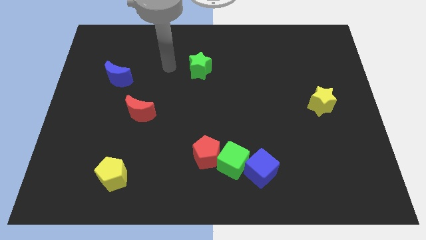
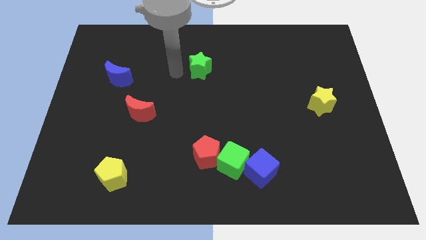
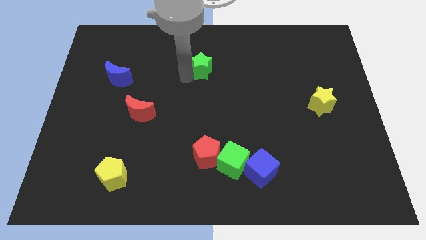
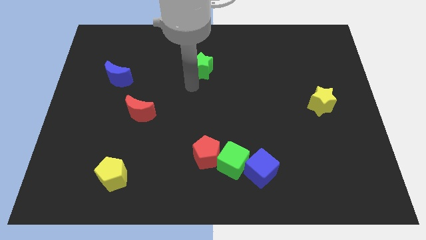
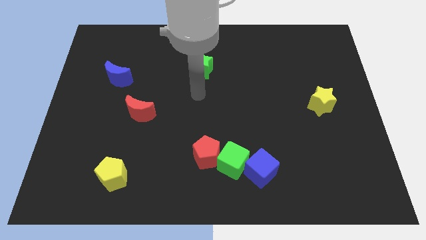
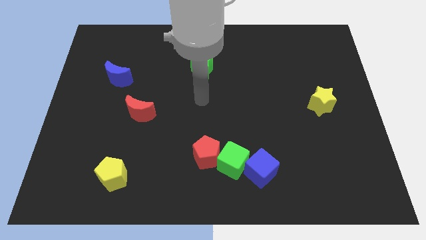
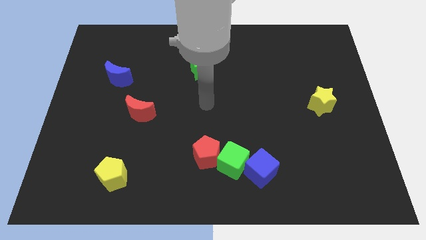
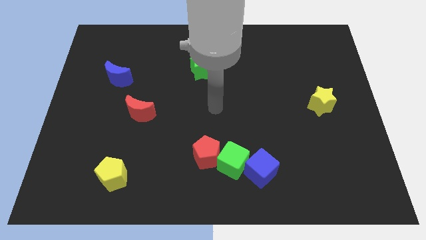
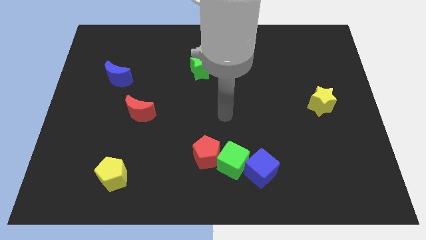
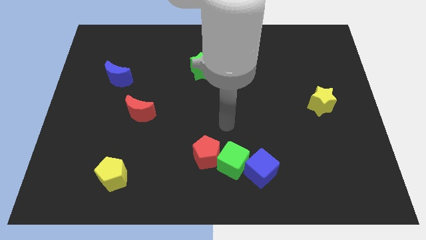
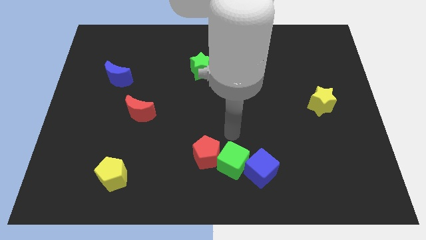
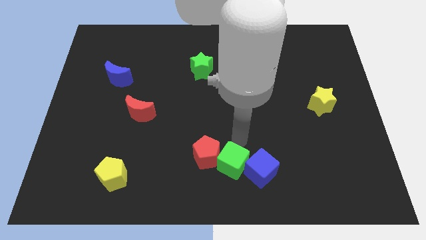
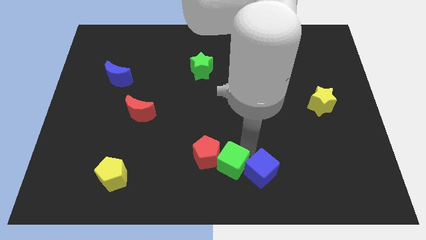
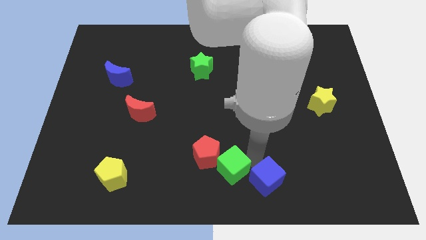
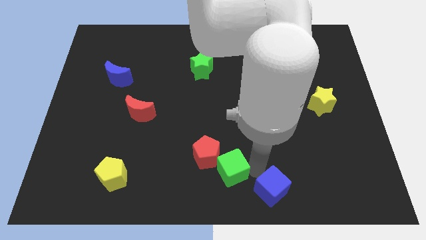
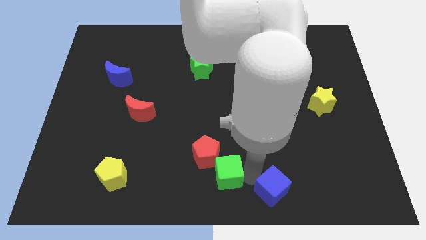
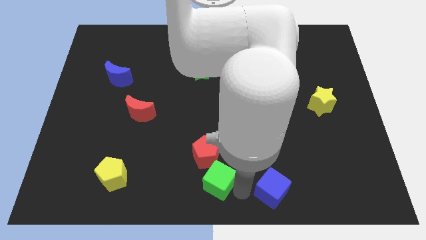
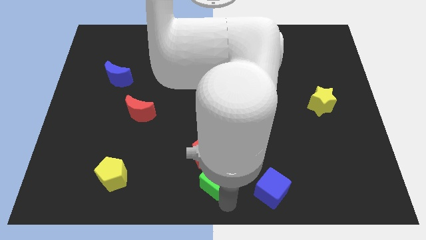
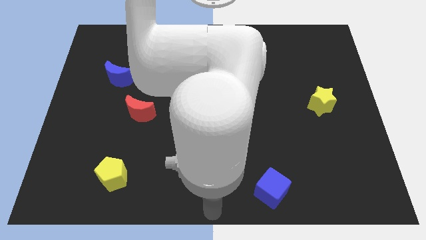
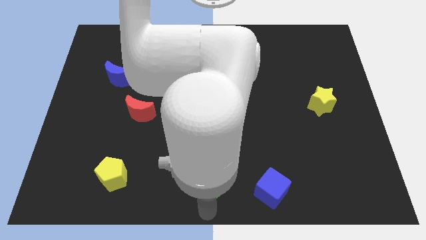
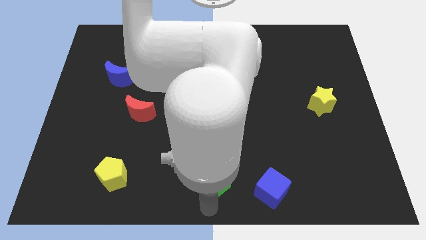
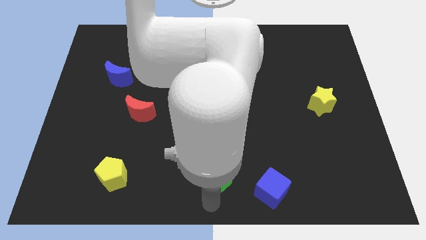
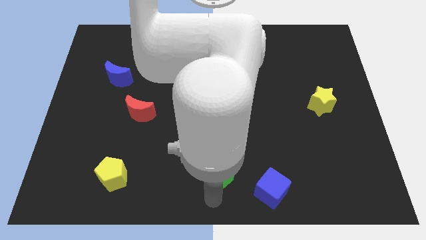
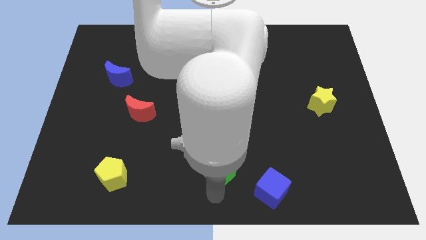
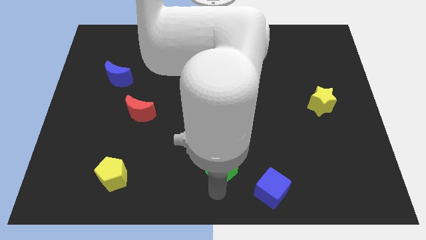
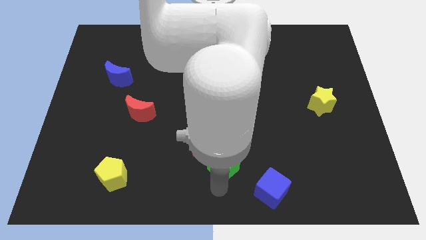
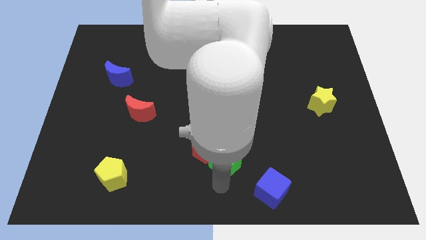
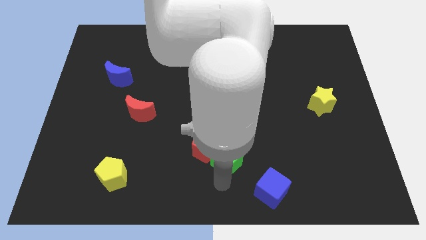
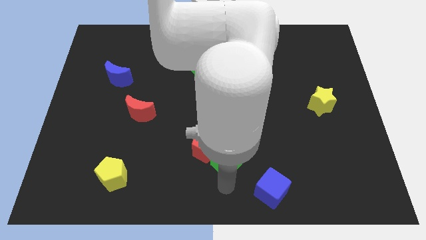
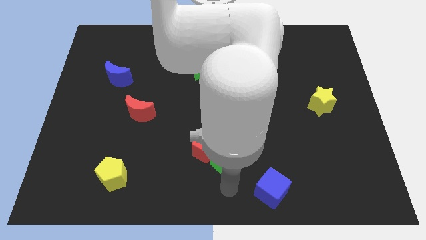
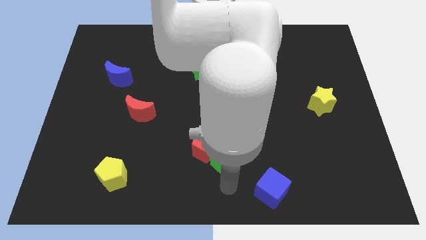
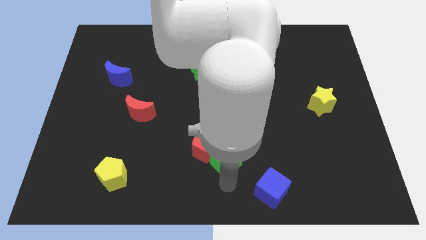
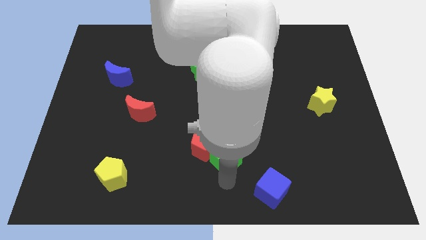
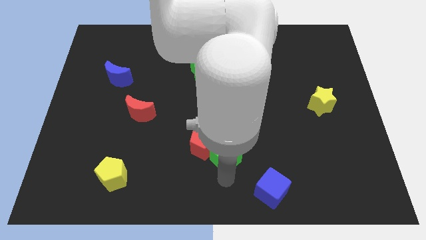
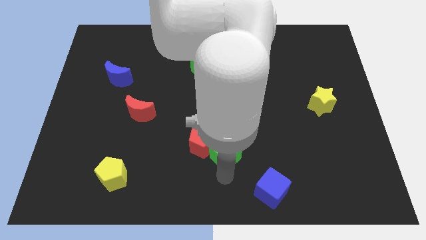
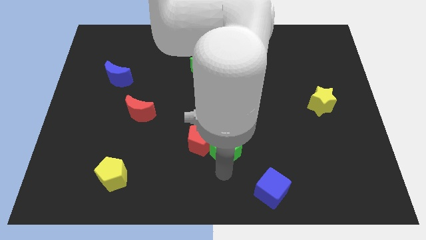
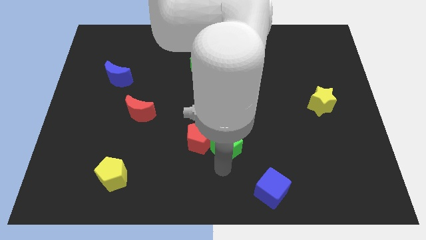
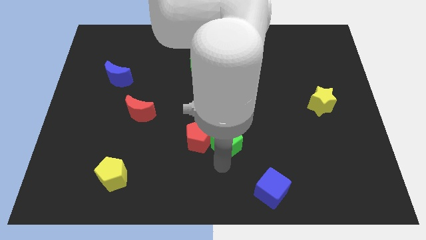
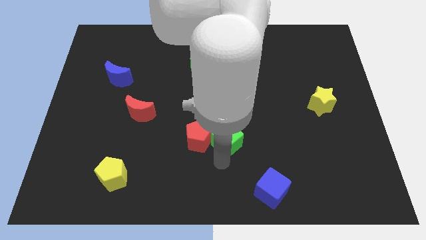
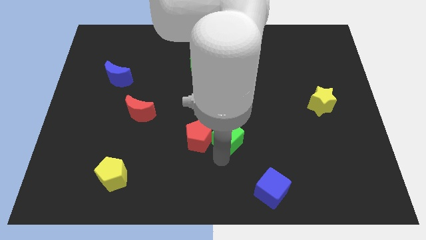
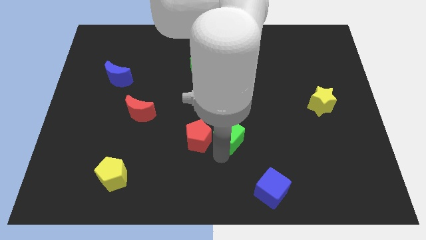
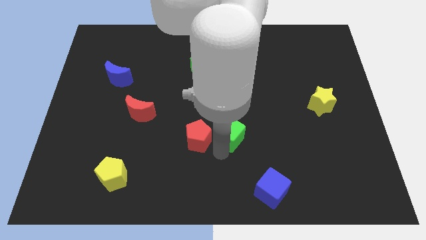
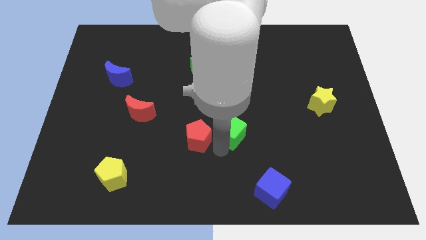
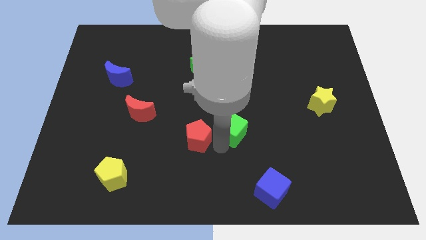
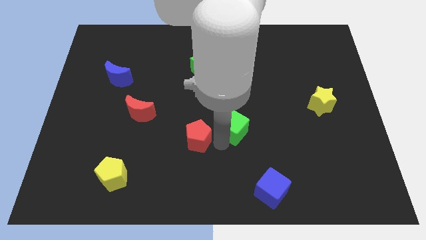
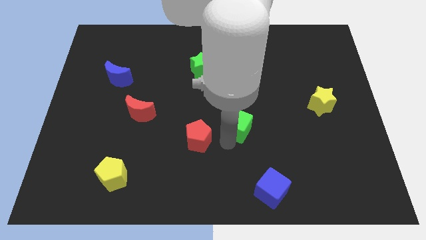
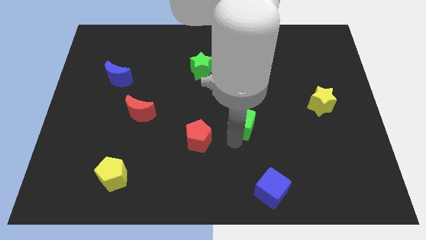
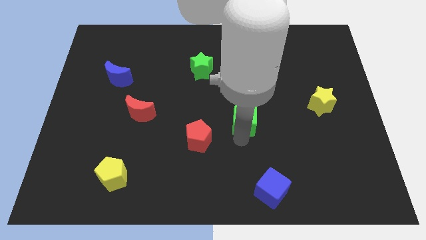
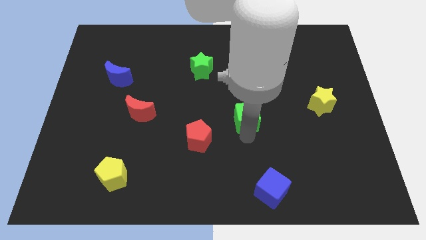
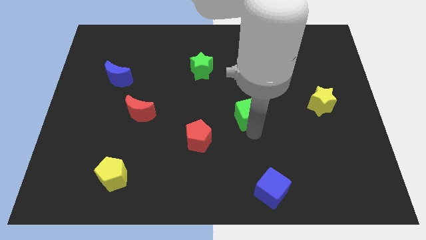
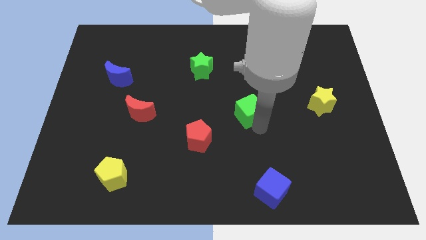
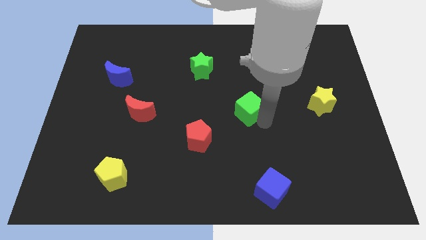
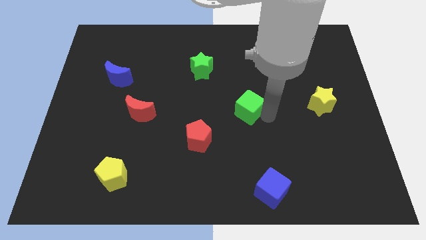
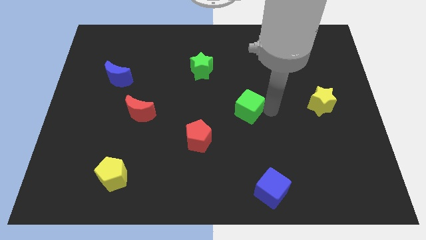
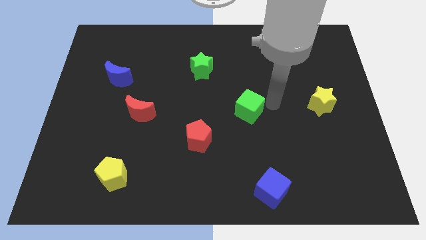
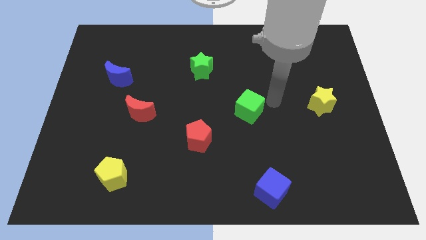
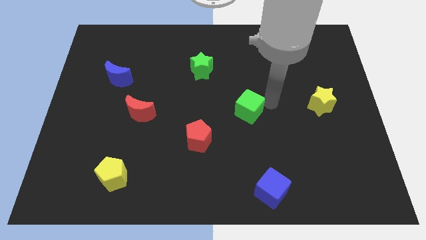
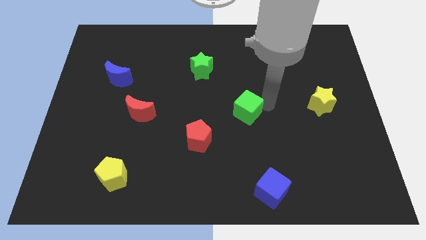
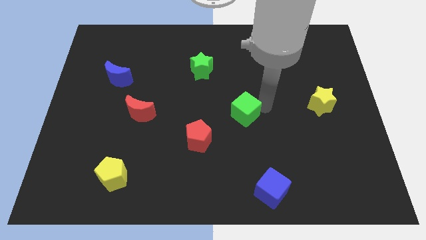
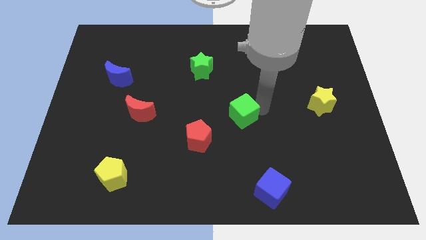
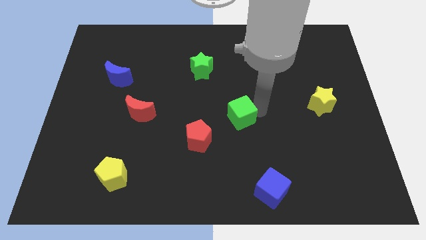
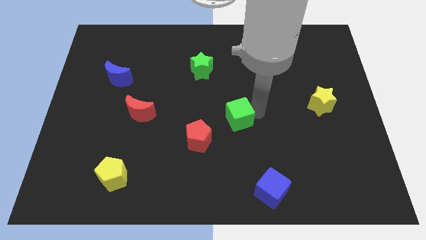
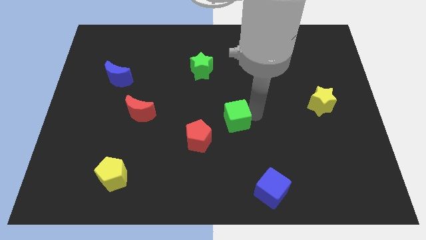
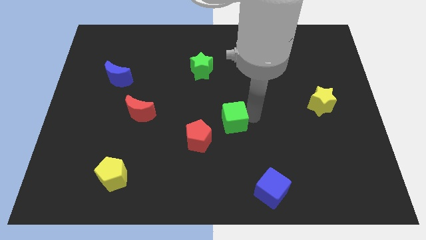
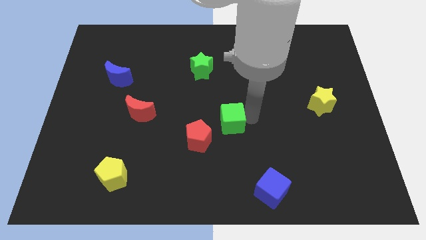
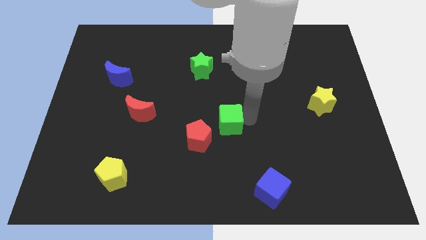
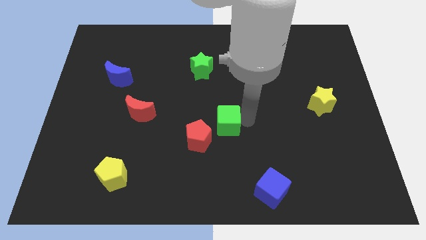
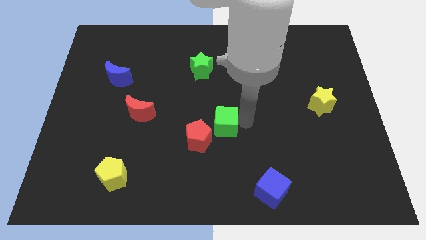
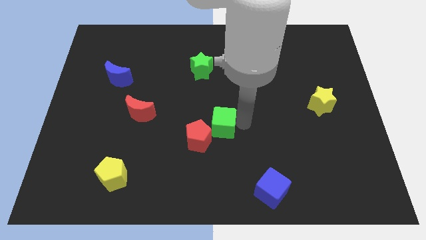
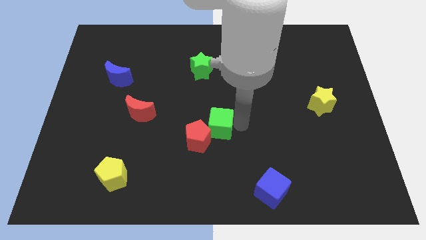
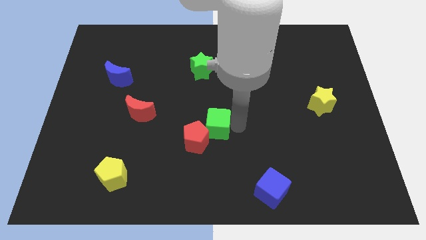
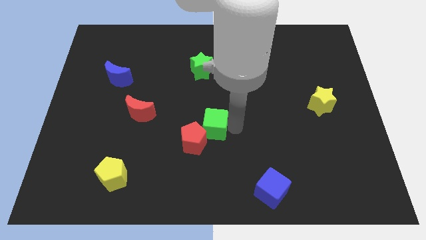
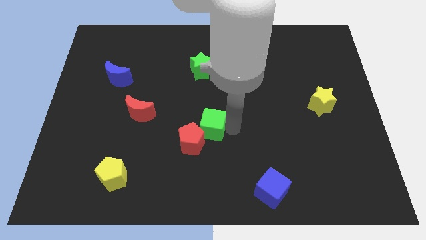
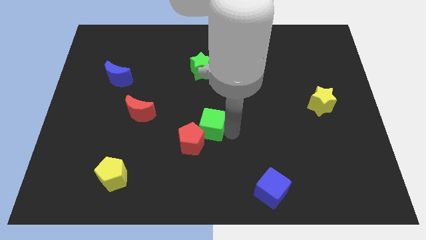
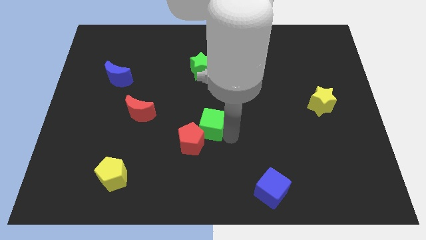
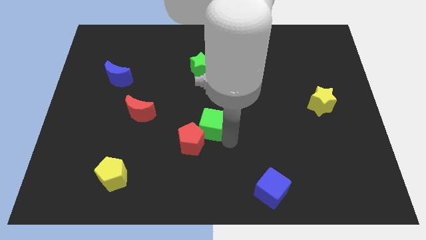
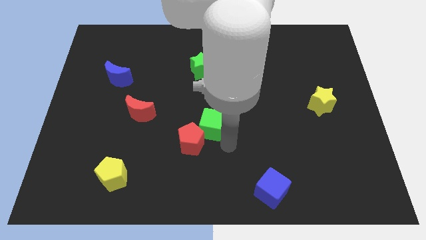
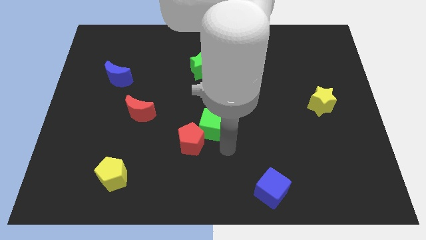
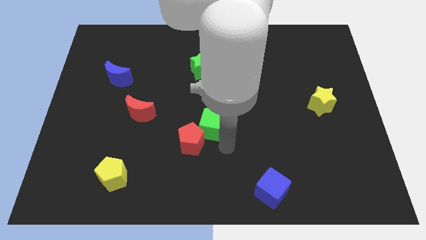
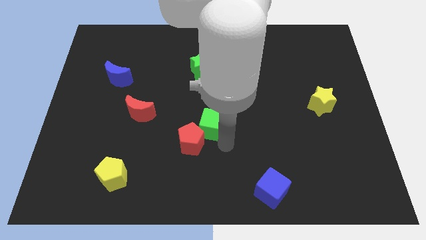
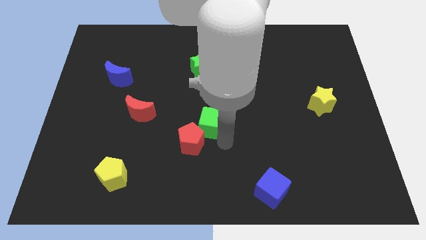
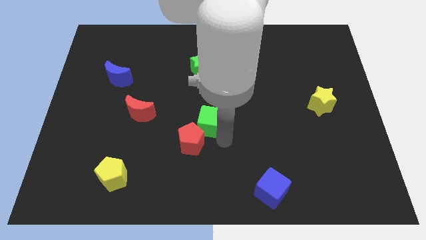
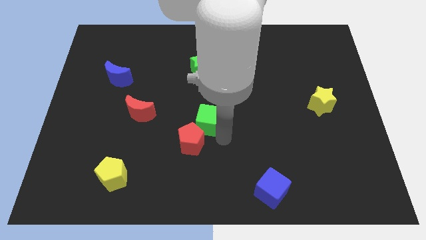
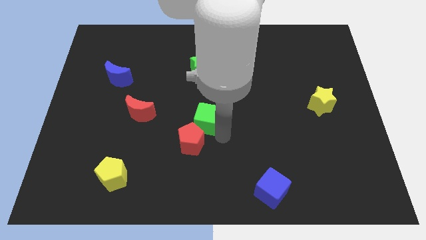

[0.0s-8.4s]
move the green cube below the green star
